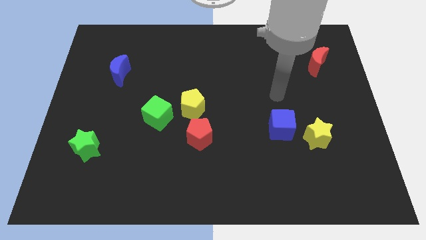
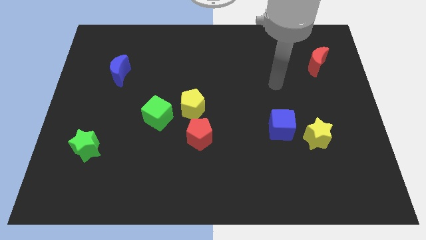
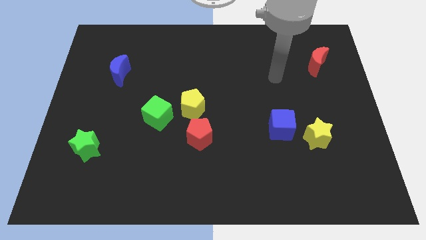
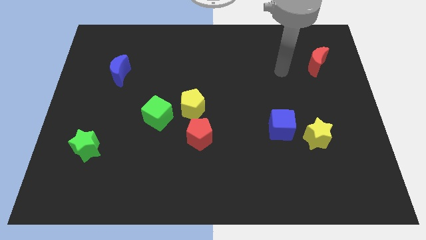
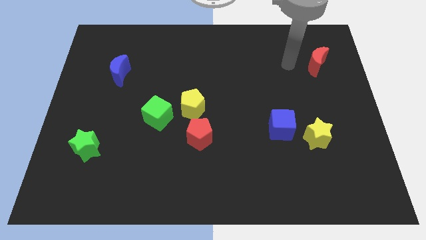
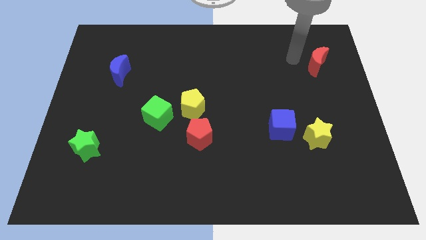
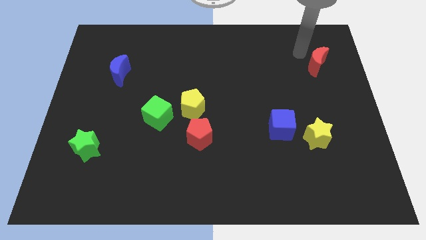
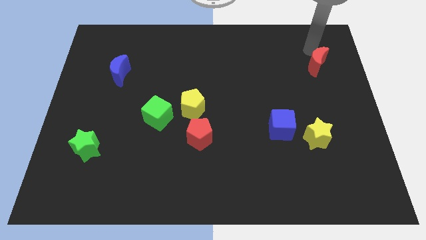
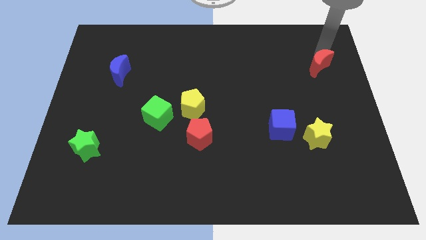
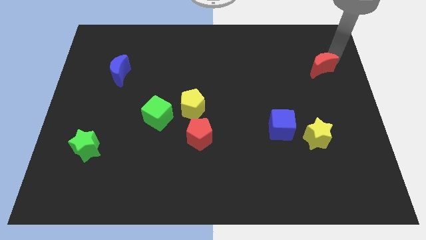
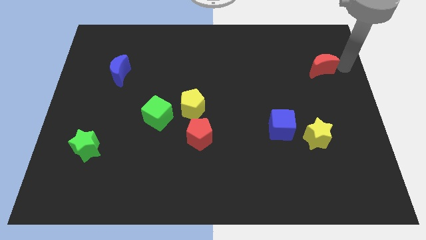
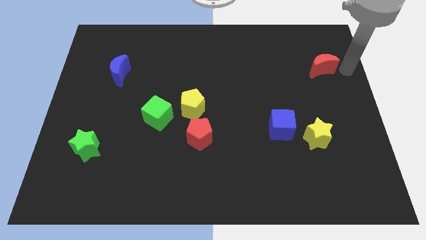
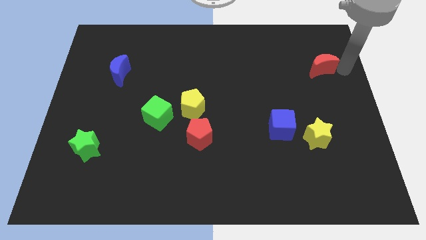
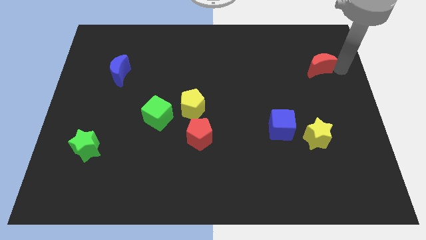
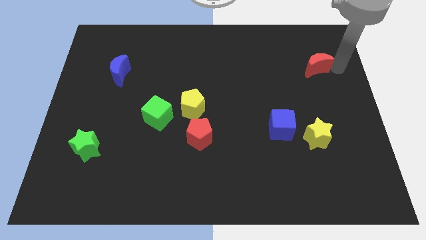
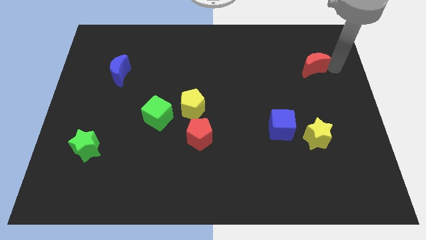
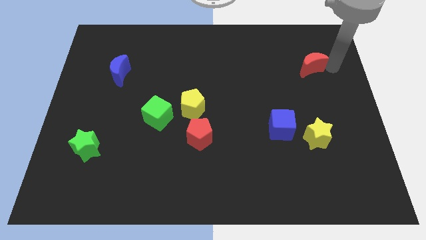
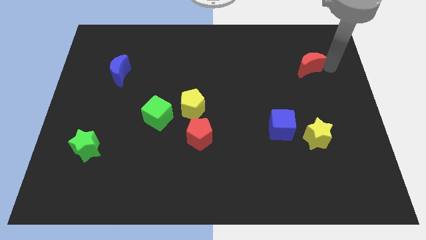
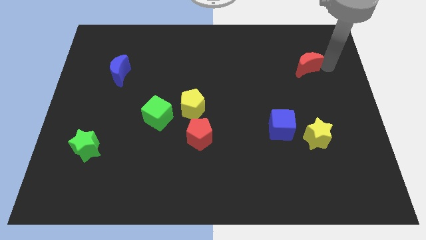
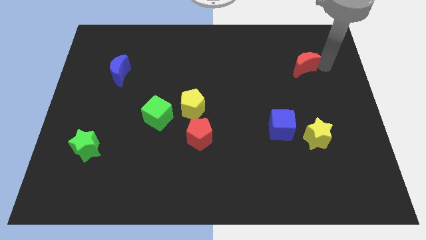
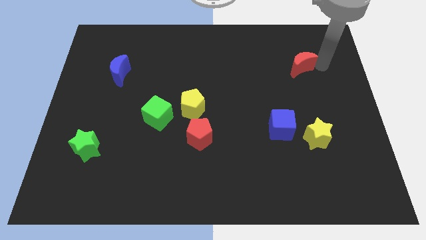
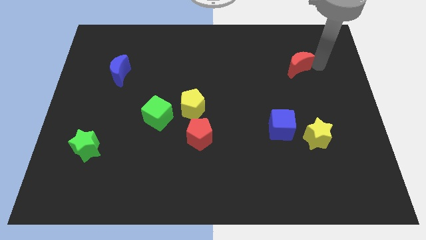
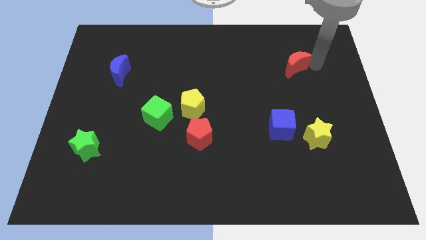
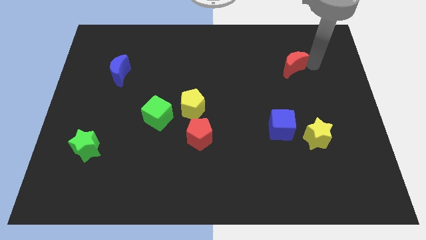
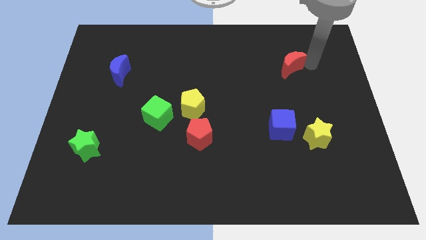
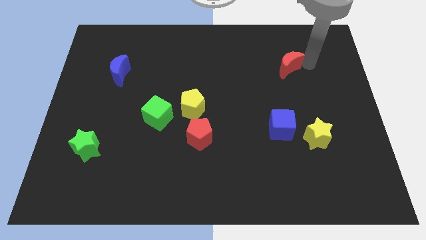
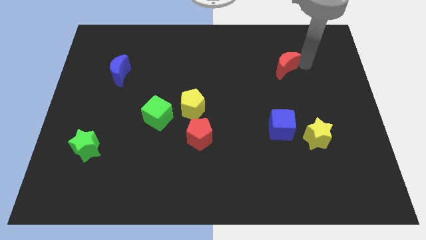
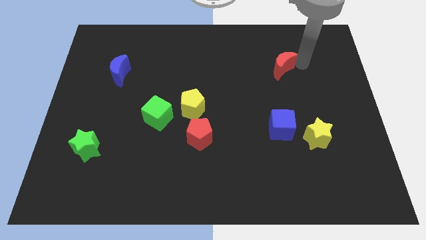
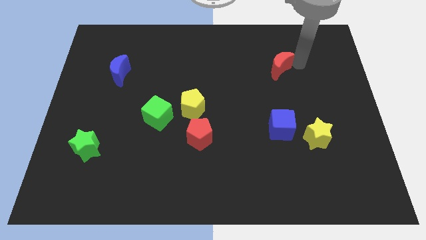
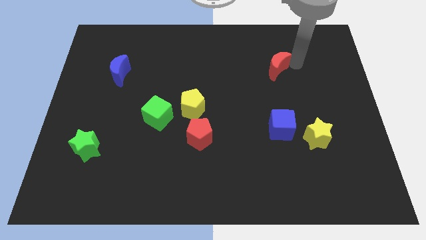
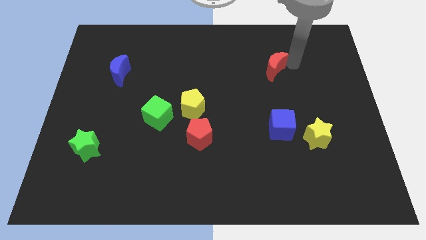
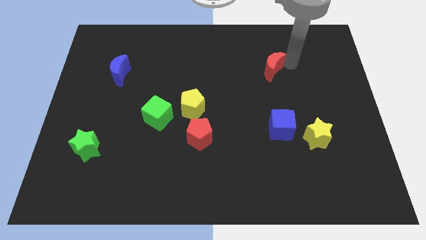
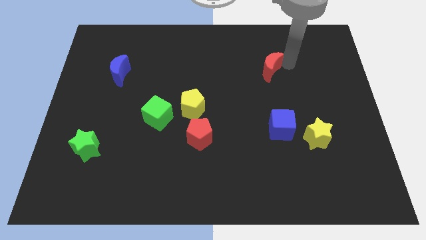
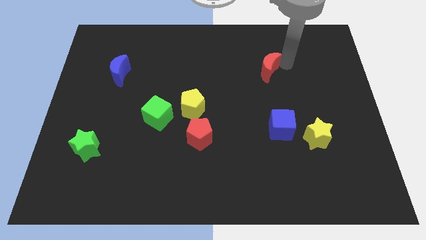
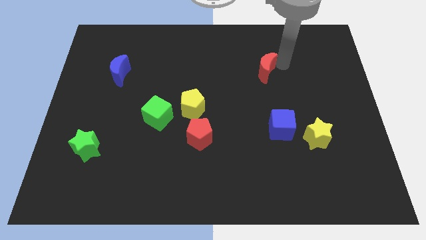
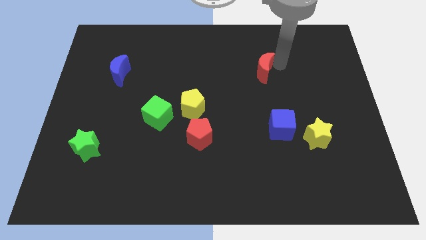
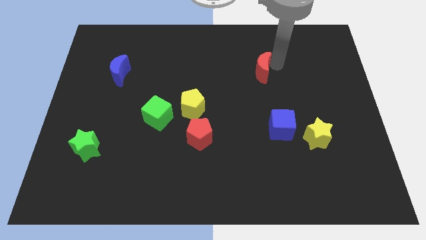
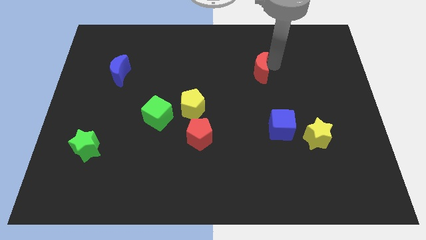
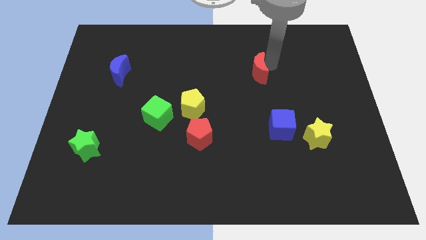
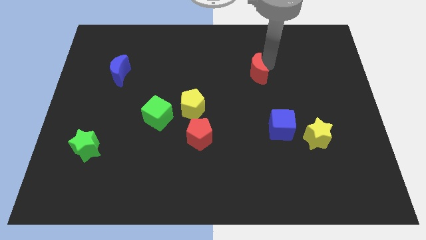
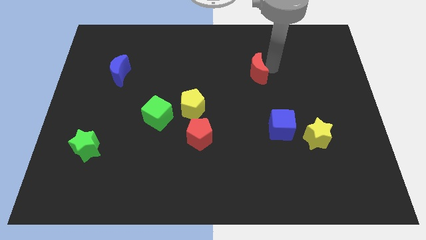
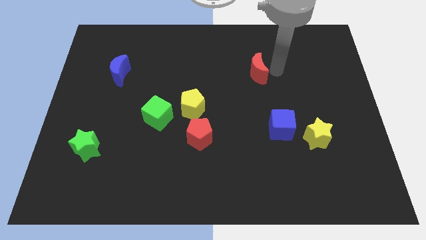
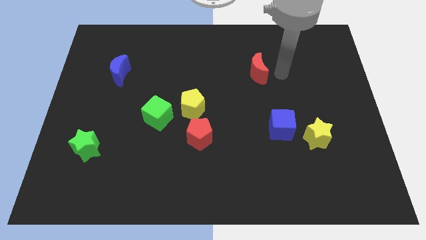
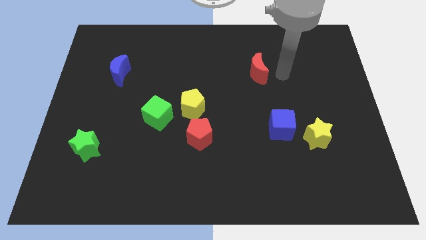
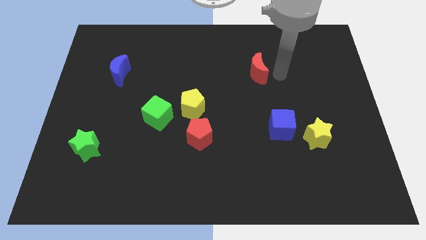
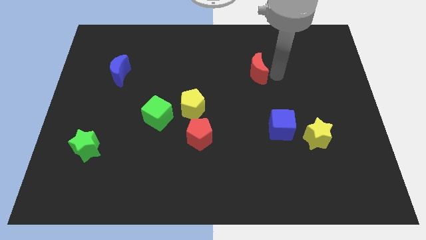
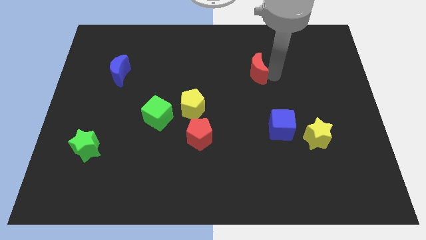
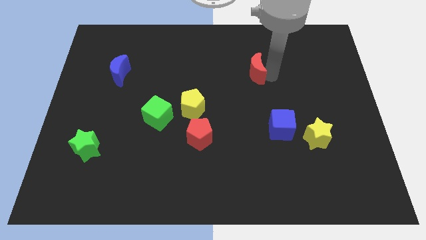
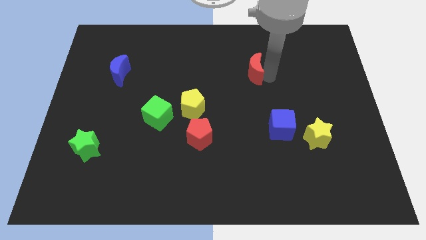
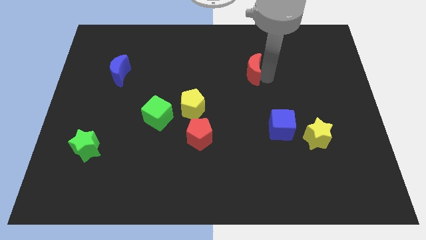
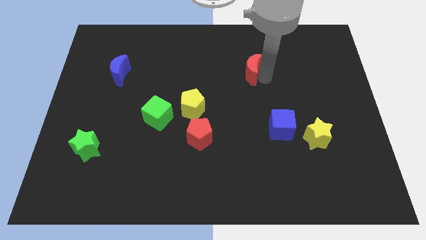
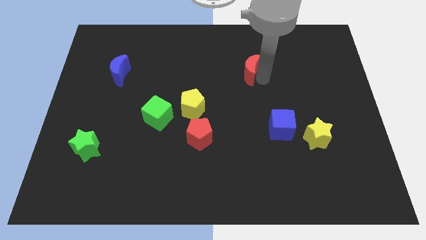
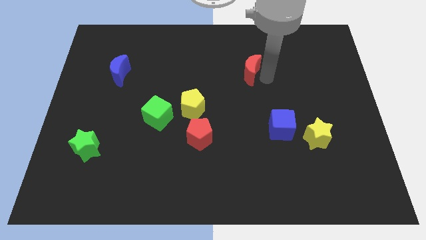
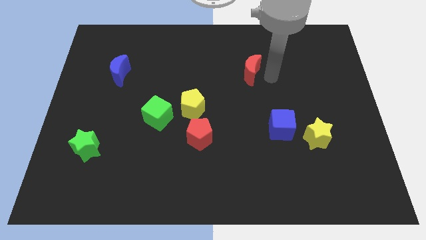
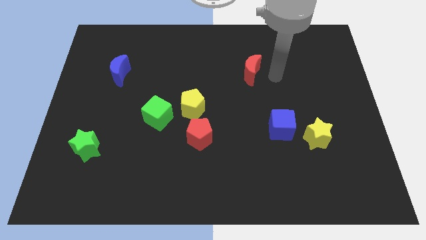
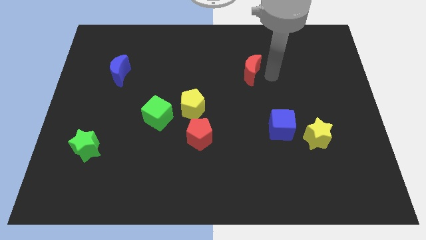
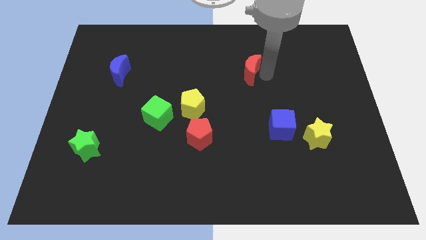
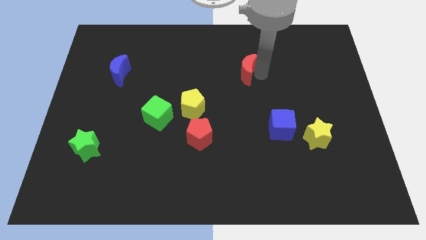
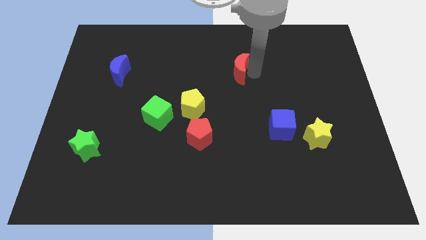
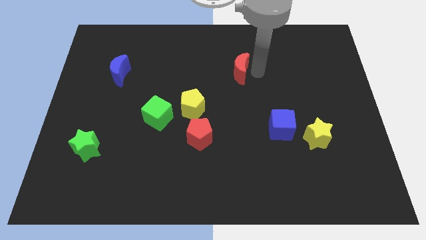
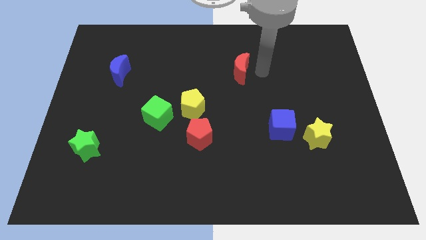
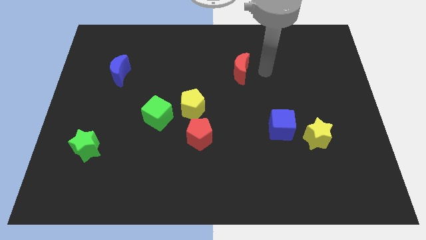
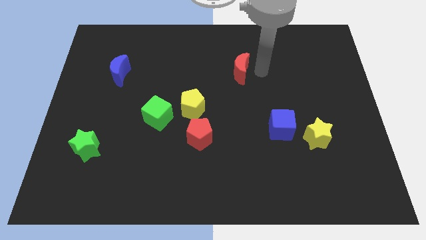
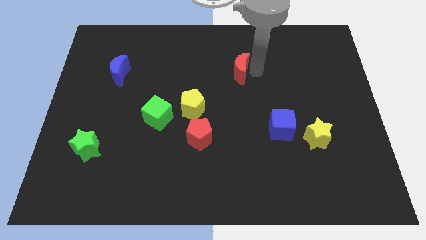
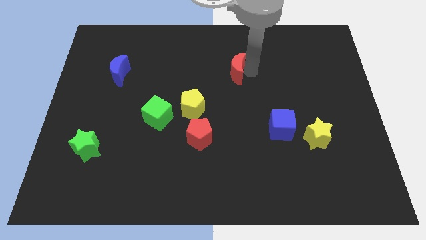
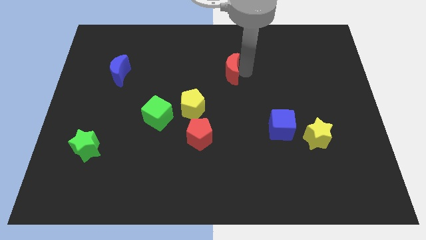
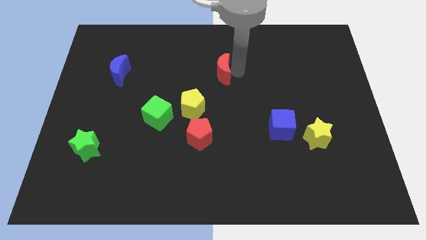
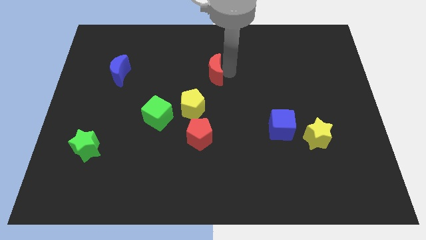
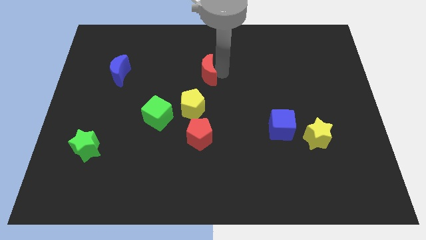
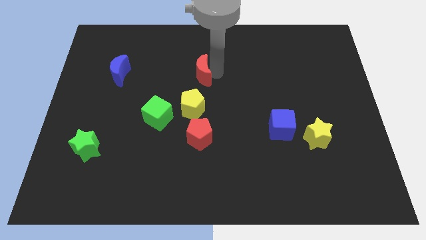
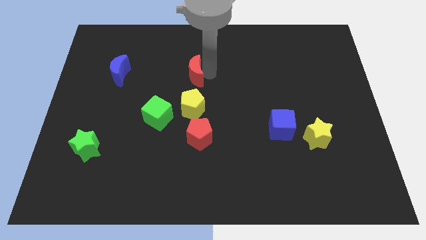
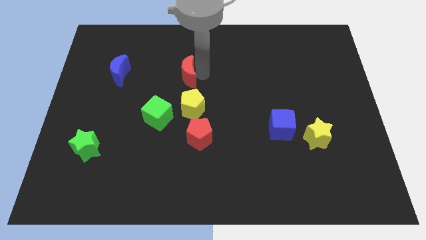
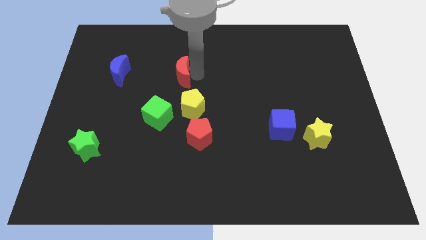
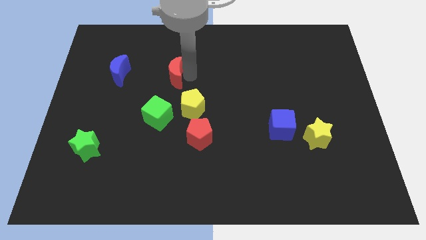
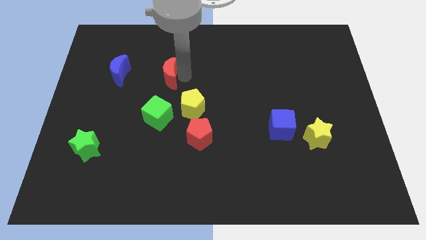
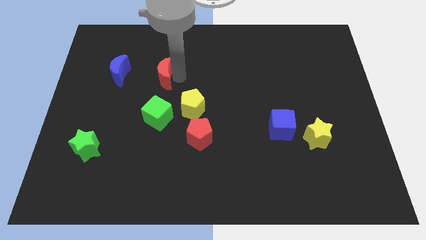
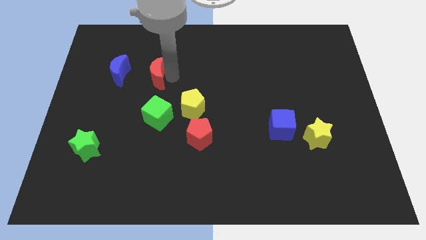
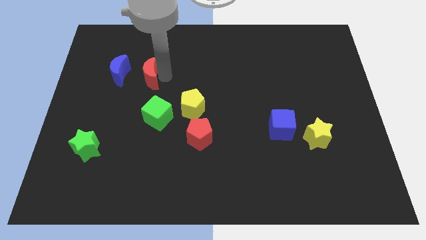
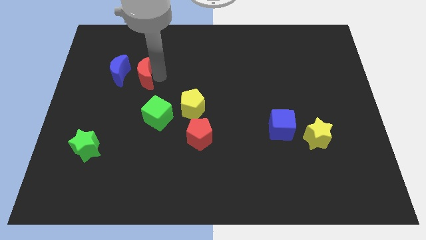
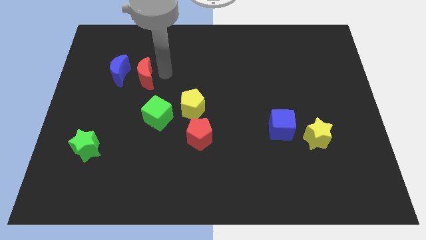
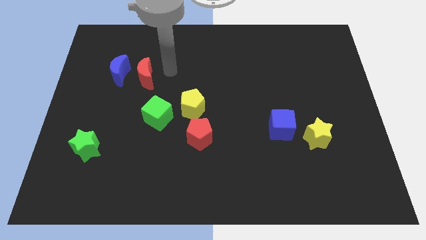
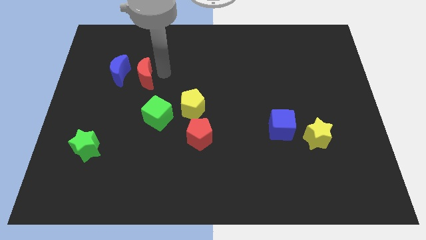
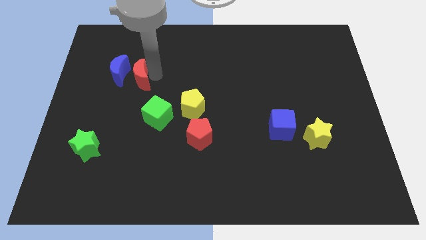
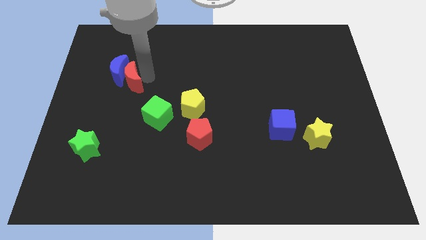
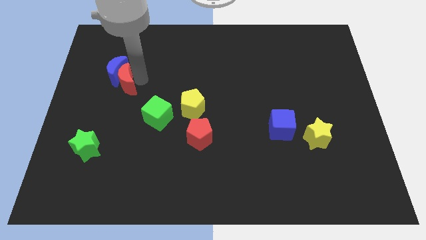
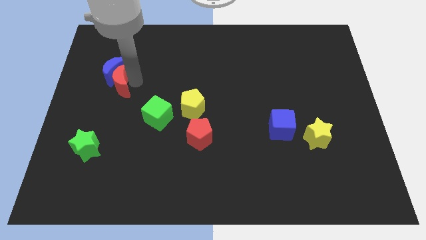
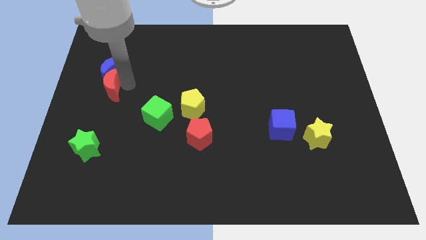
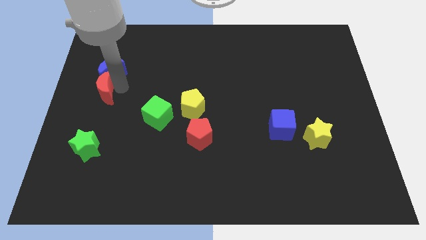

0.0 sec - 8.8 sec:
slide the red moon to the left side of the board
